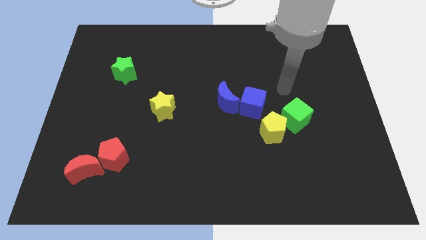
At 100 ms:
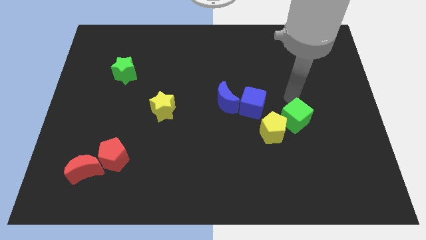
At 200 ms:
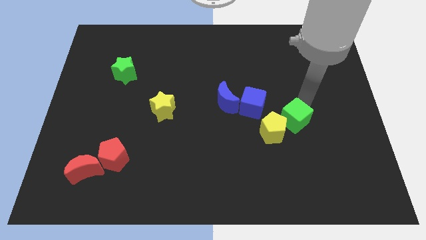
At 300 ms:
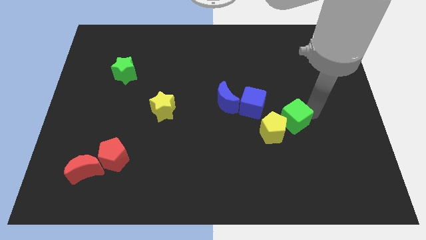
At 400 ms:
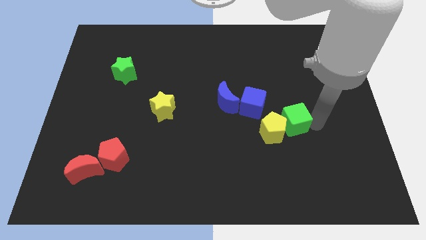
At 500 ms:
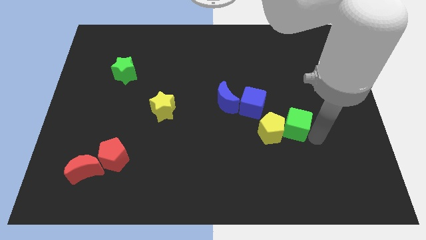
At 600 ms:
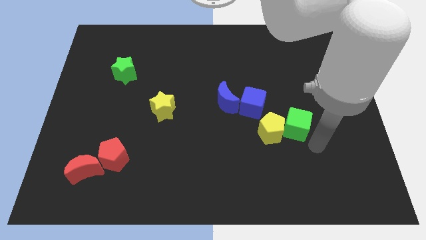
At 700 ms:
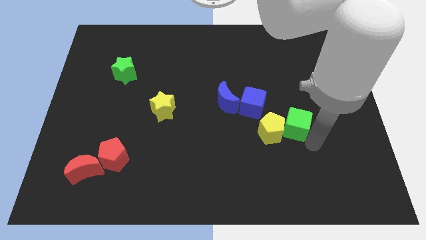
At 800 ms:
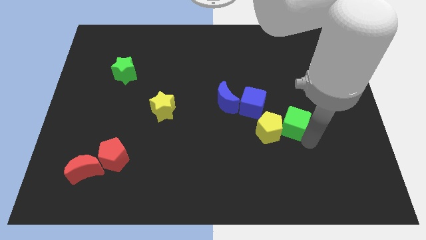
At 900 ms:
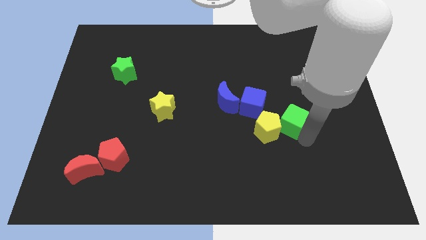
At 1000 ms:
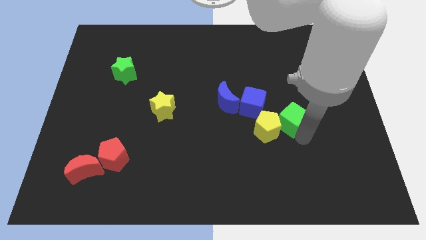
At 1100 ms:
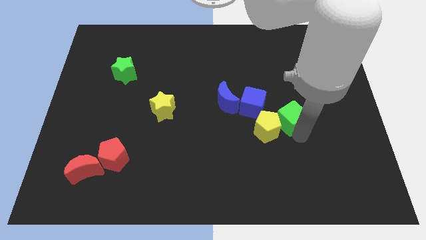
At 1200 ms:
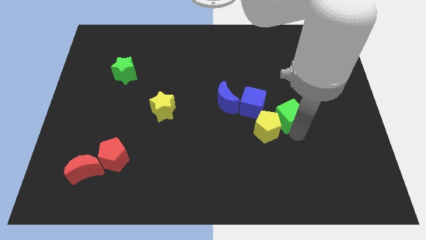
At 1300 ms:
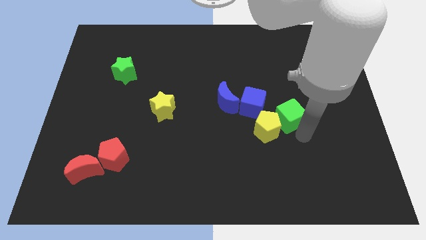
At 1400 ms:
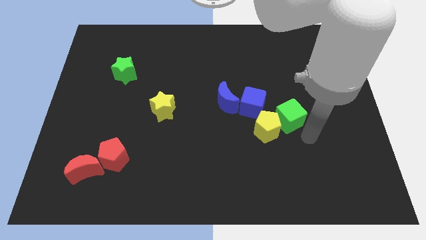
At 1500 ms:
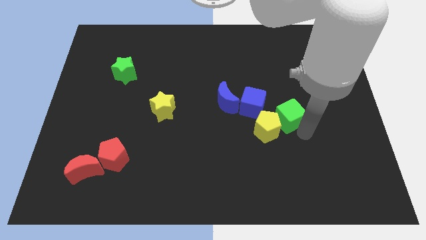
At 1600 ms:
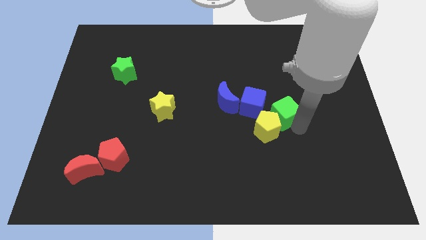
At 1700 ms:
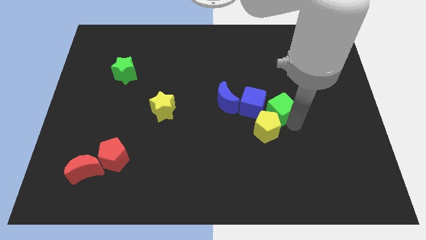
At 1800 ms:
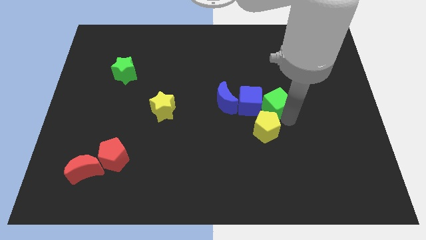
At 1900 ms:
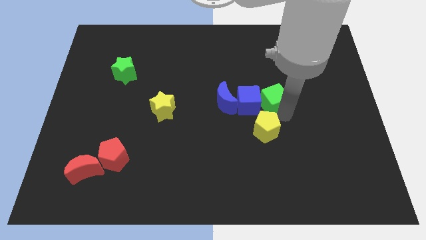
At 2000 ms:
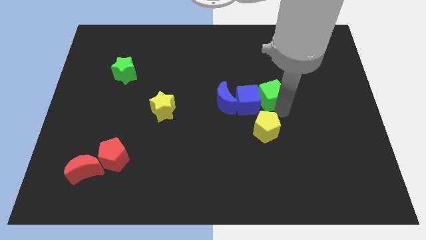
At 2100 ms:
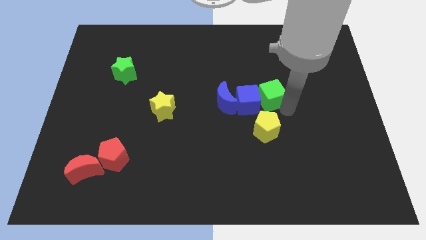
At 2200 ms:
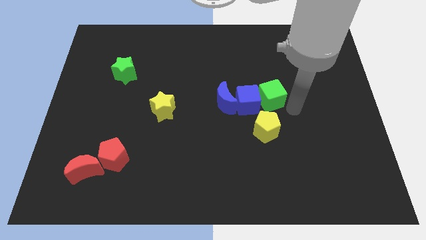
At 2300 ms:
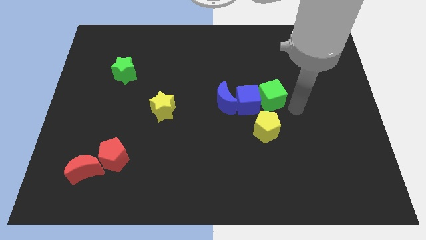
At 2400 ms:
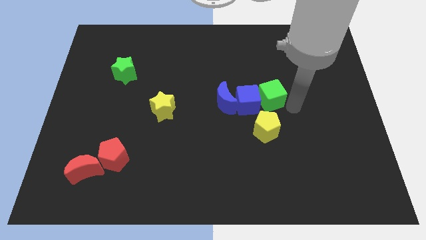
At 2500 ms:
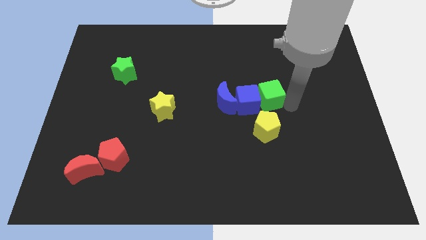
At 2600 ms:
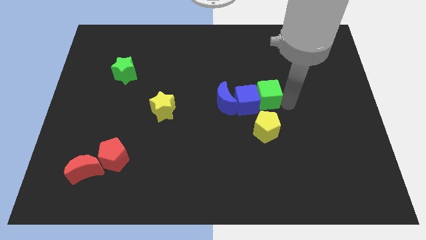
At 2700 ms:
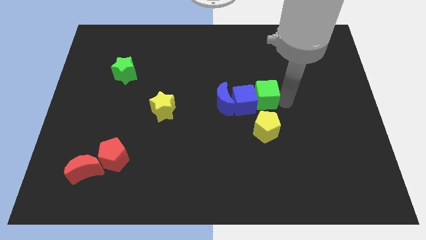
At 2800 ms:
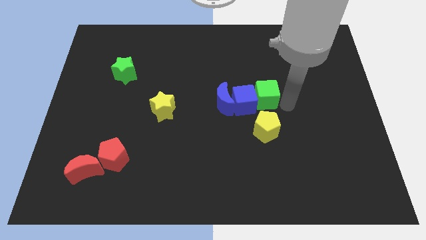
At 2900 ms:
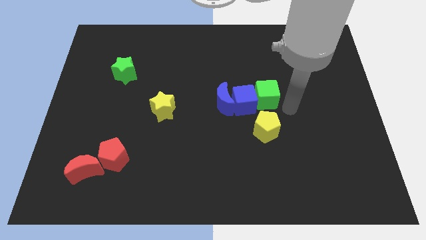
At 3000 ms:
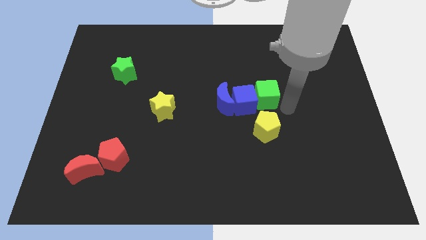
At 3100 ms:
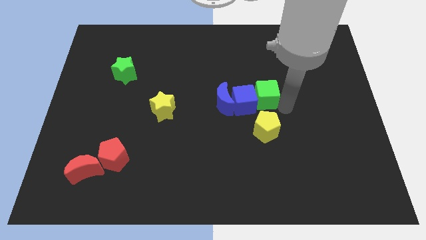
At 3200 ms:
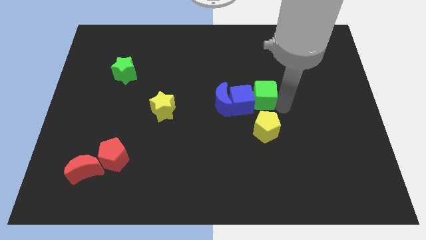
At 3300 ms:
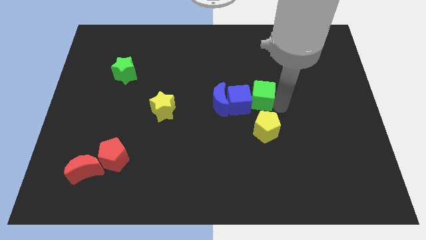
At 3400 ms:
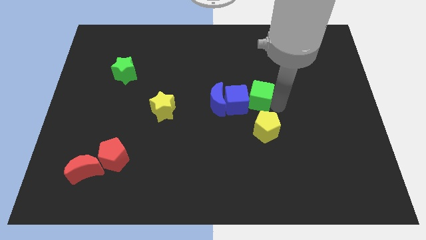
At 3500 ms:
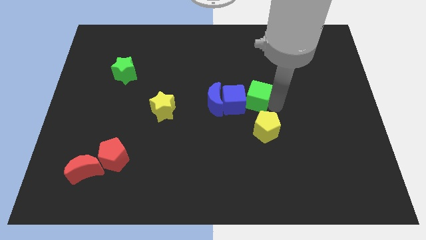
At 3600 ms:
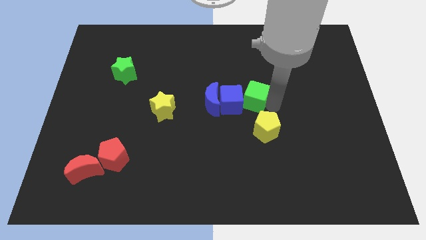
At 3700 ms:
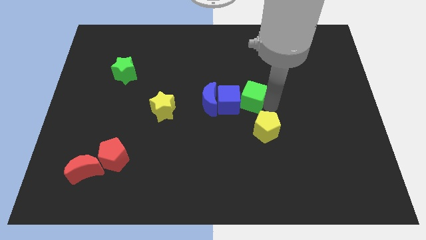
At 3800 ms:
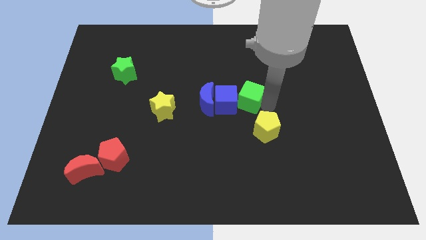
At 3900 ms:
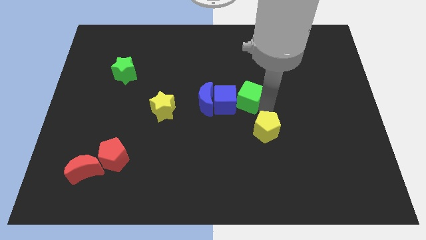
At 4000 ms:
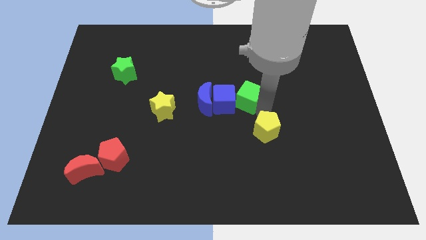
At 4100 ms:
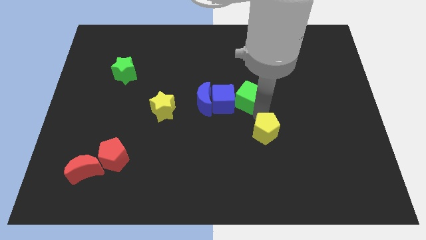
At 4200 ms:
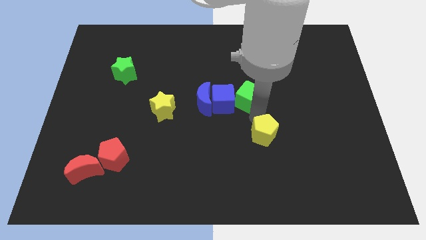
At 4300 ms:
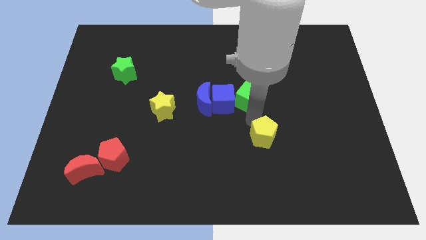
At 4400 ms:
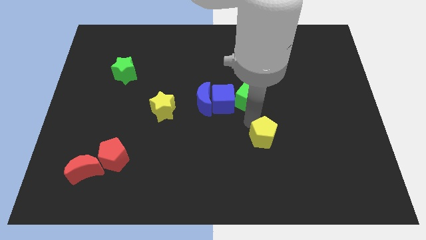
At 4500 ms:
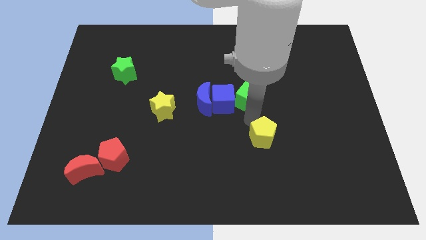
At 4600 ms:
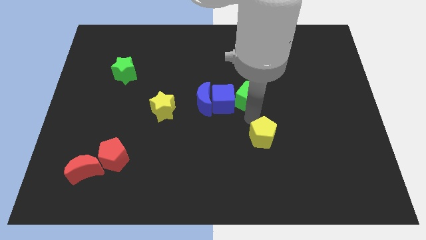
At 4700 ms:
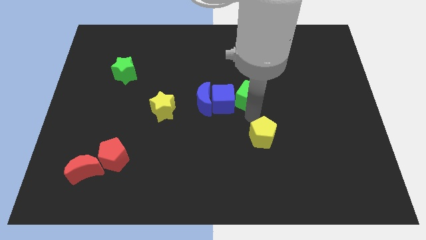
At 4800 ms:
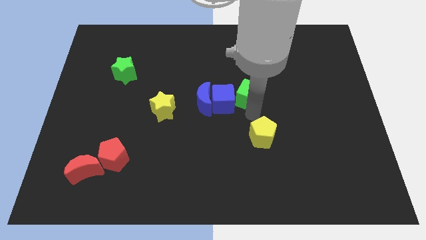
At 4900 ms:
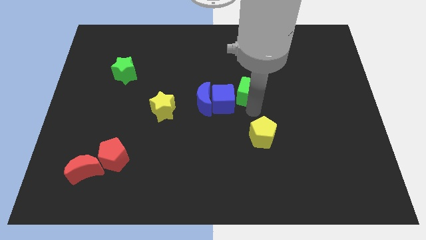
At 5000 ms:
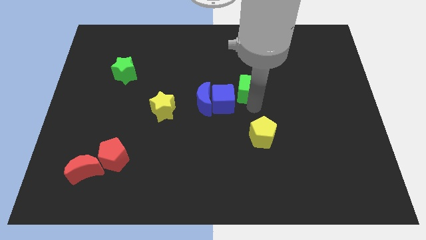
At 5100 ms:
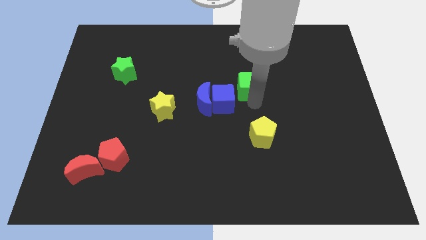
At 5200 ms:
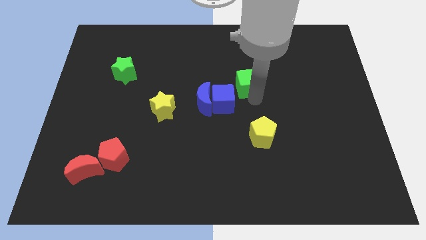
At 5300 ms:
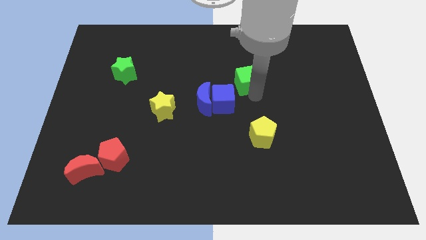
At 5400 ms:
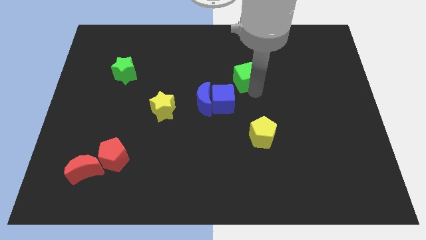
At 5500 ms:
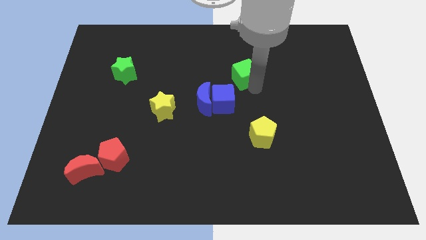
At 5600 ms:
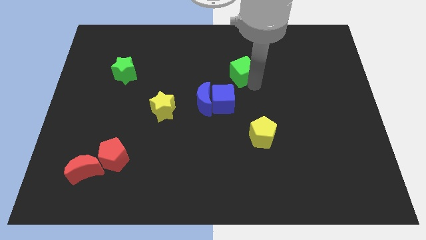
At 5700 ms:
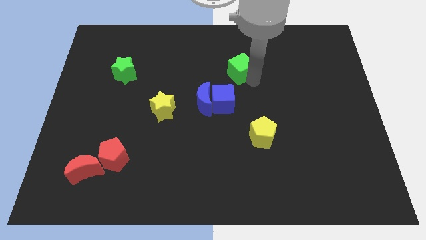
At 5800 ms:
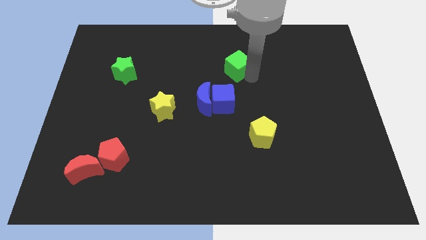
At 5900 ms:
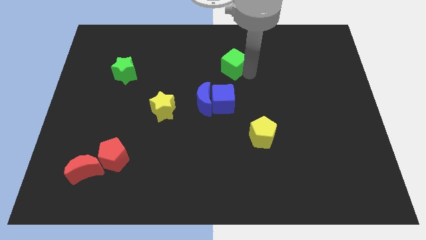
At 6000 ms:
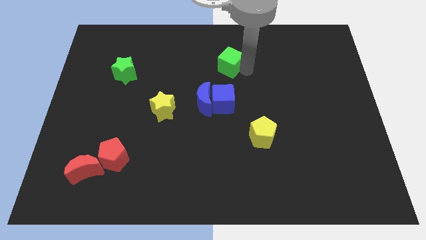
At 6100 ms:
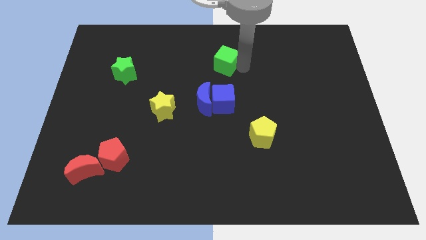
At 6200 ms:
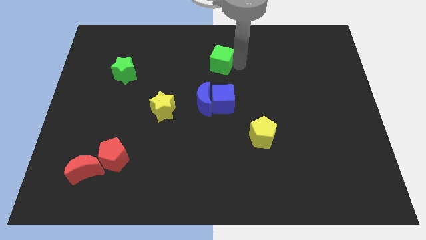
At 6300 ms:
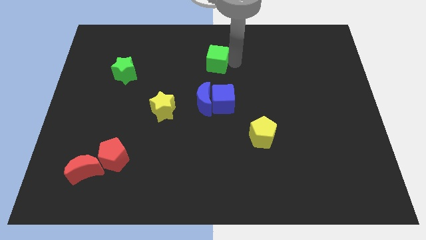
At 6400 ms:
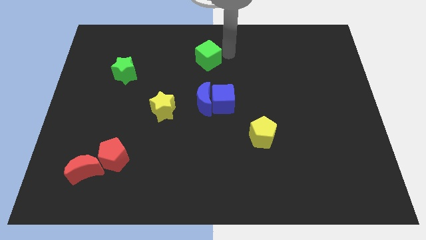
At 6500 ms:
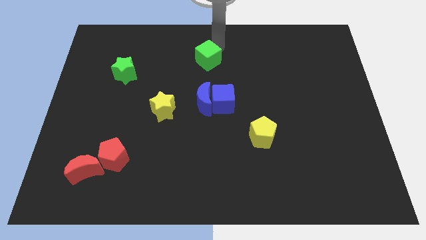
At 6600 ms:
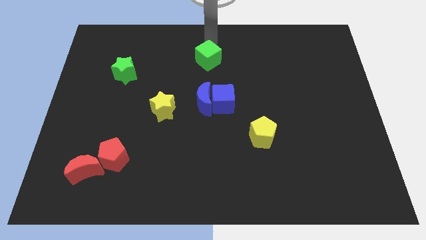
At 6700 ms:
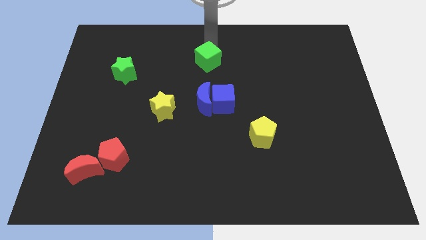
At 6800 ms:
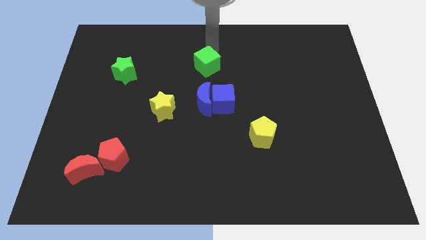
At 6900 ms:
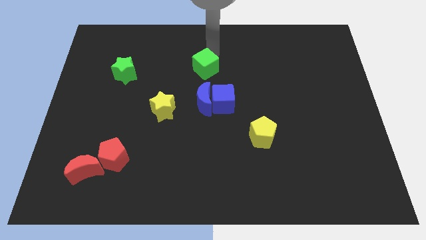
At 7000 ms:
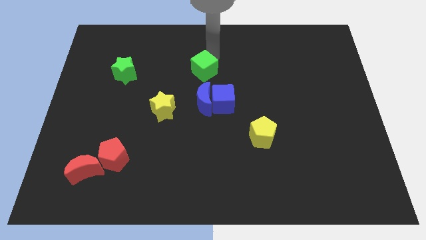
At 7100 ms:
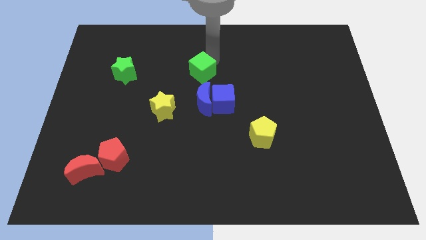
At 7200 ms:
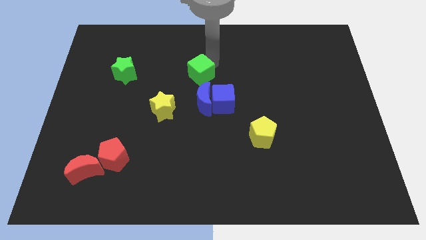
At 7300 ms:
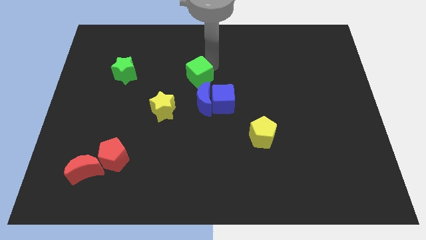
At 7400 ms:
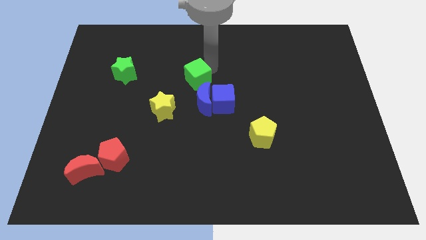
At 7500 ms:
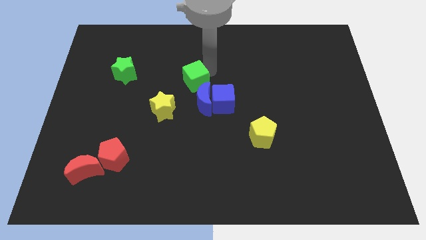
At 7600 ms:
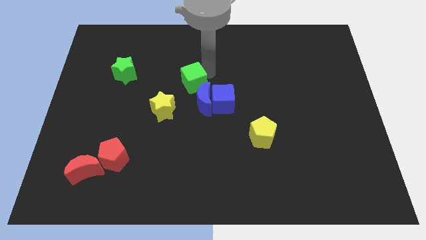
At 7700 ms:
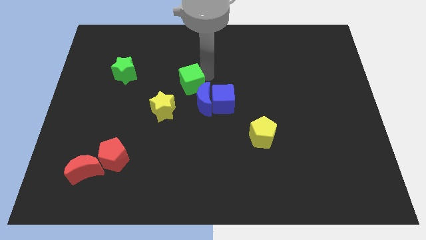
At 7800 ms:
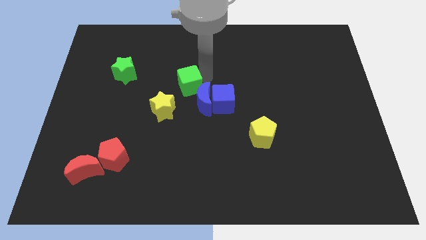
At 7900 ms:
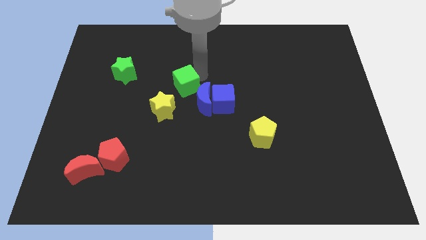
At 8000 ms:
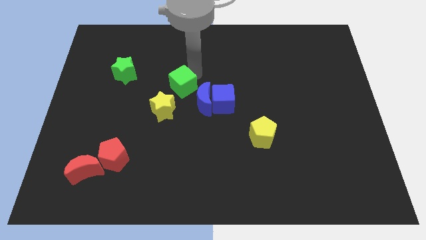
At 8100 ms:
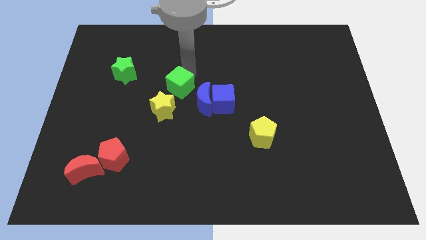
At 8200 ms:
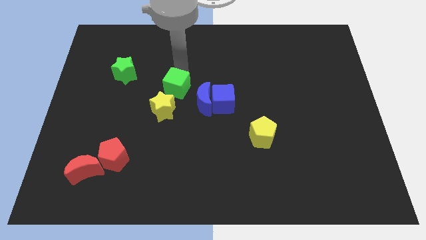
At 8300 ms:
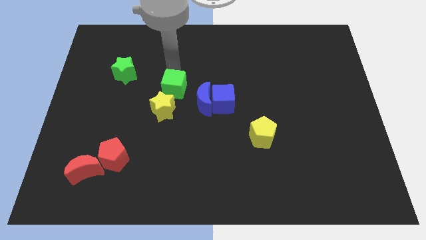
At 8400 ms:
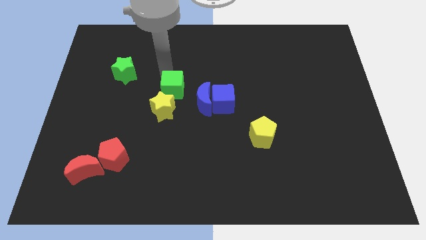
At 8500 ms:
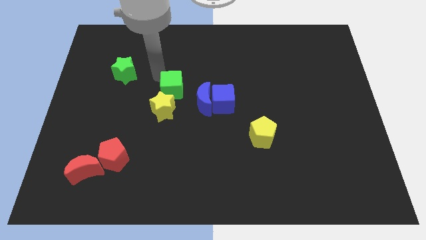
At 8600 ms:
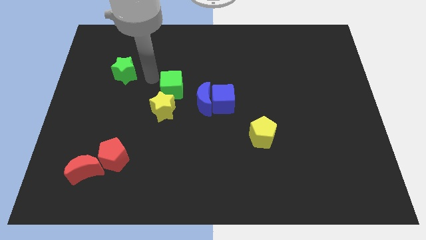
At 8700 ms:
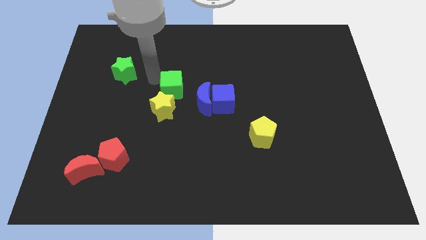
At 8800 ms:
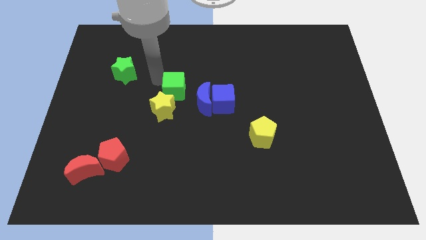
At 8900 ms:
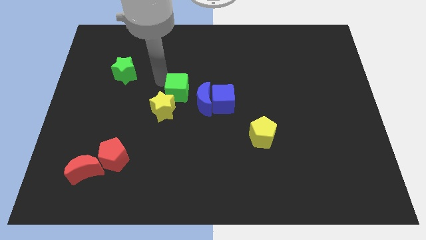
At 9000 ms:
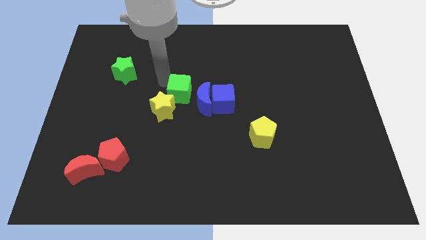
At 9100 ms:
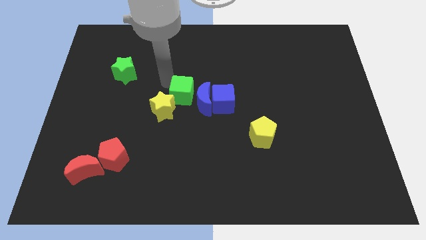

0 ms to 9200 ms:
push the green cube towards the blue moon
